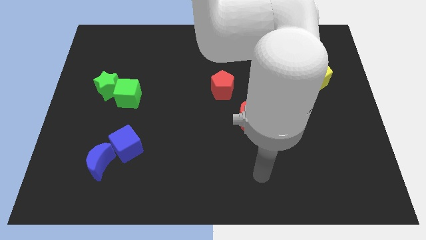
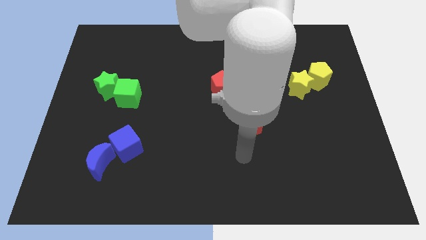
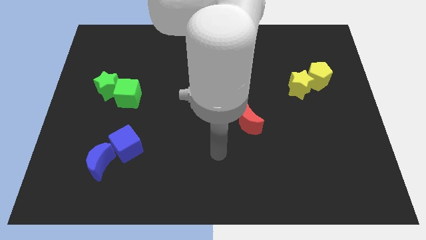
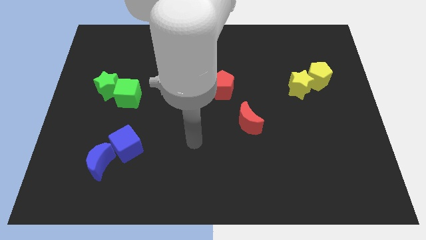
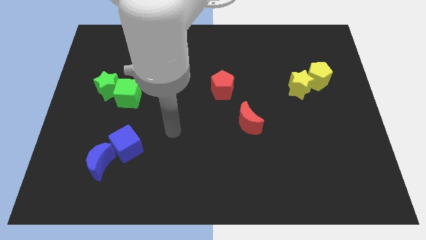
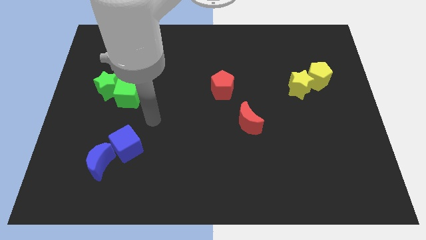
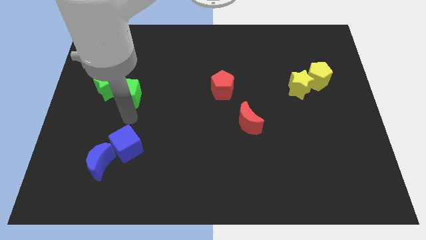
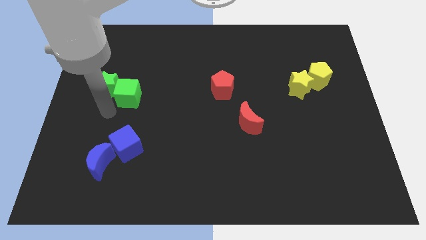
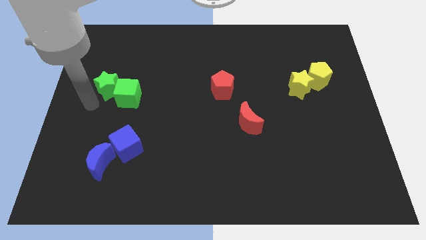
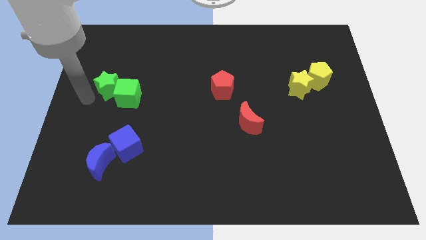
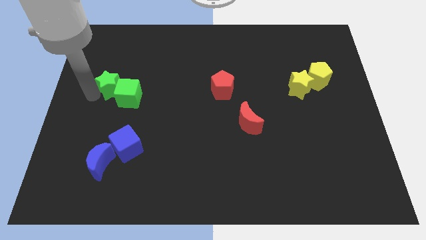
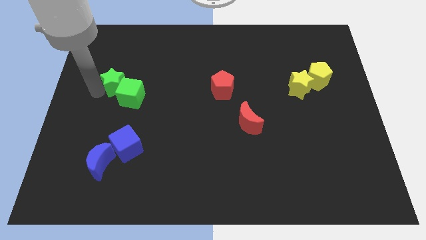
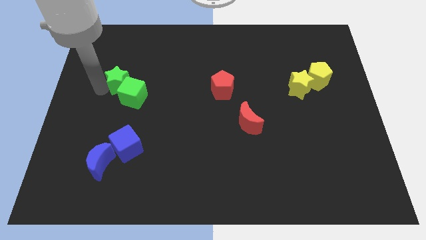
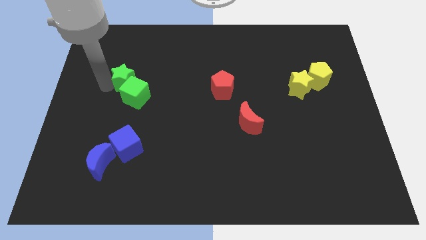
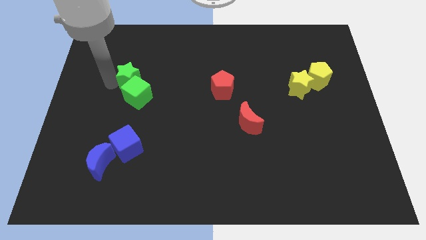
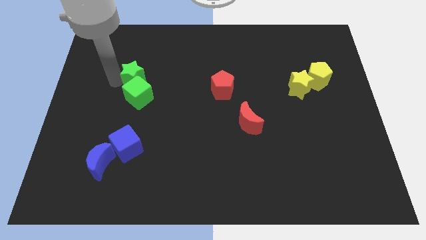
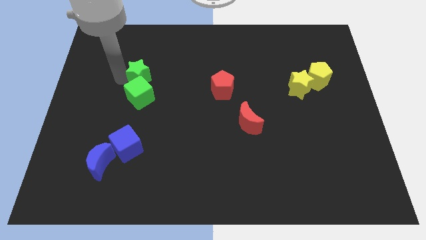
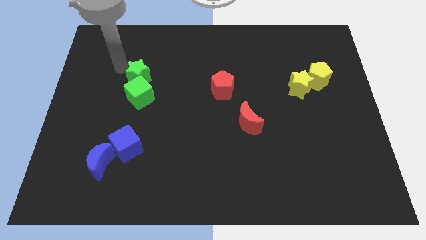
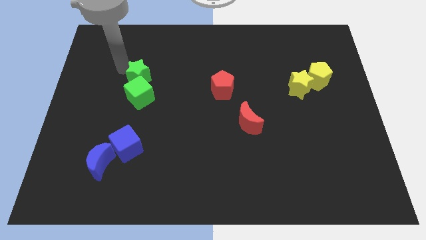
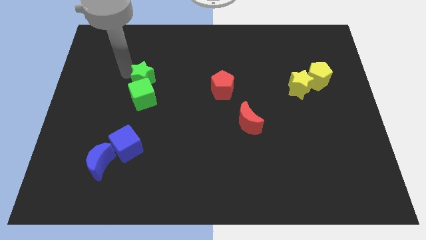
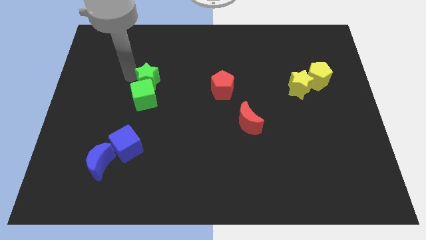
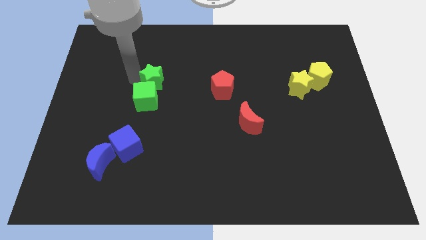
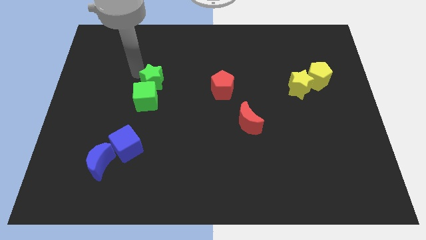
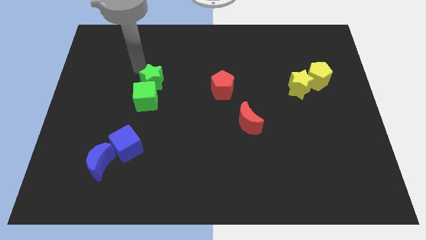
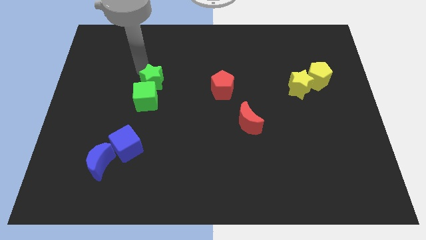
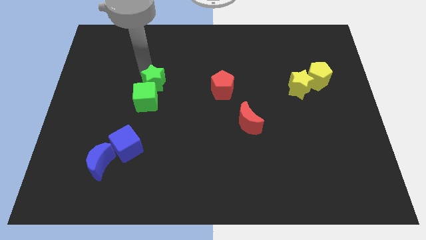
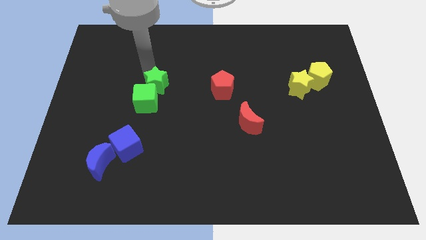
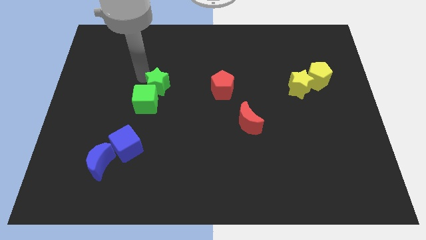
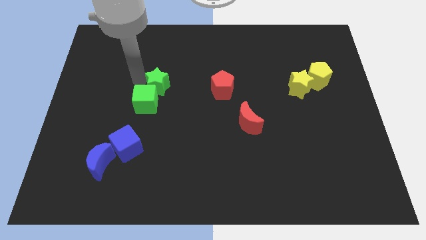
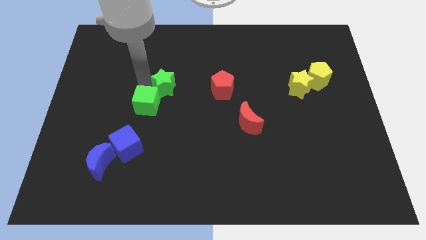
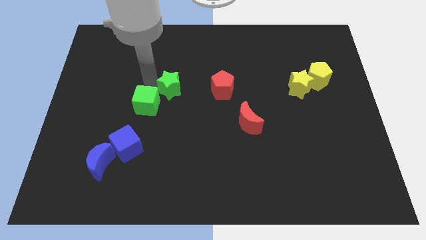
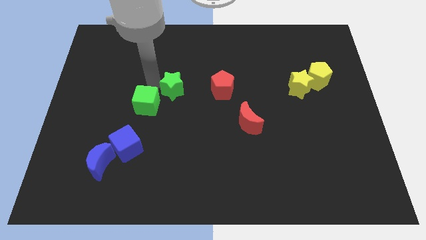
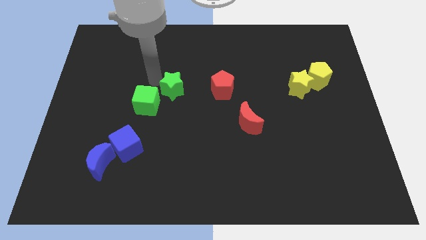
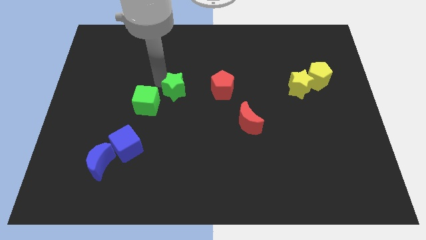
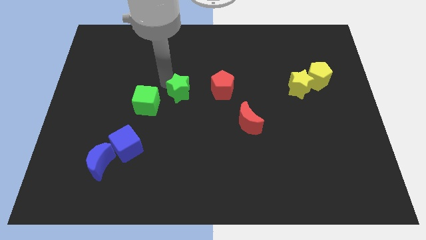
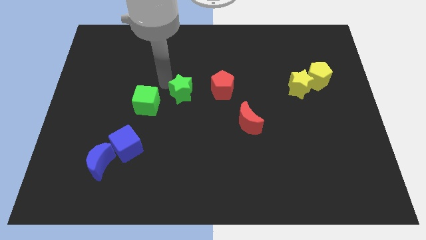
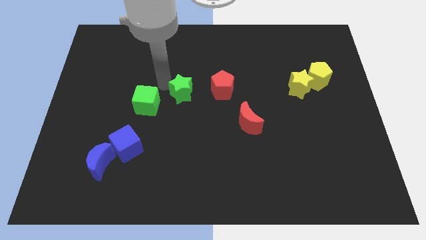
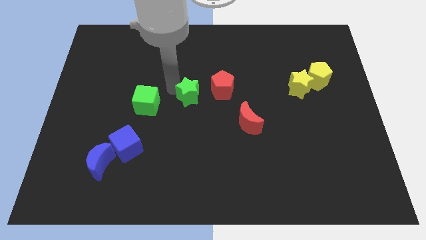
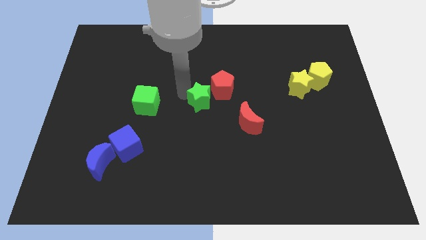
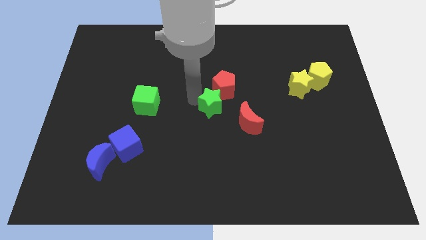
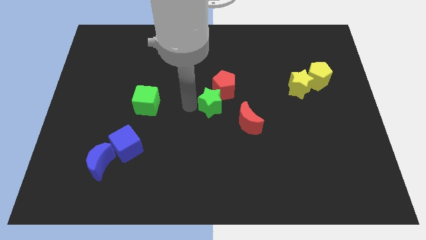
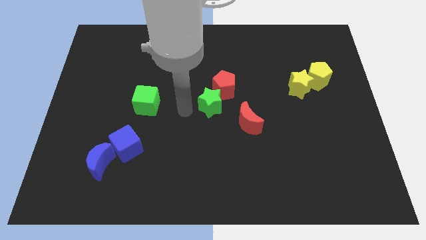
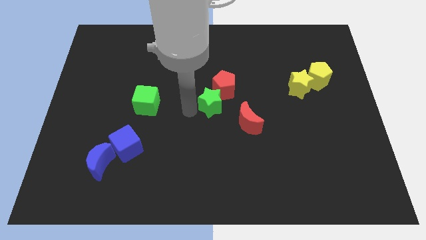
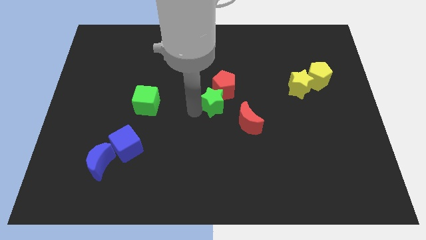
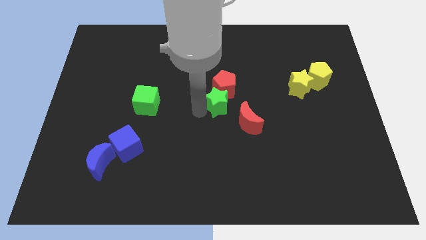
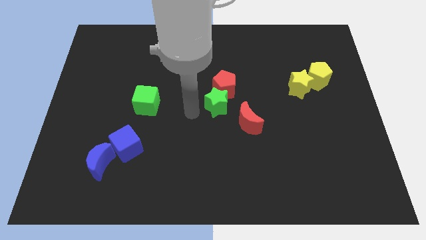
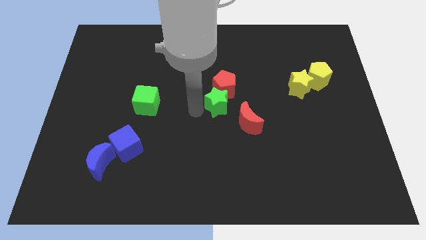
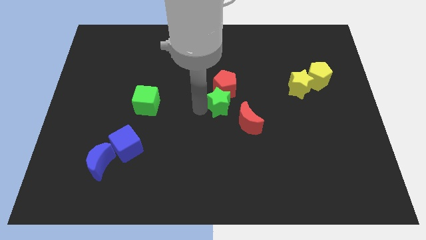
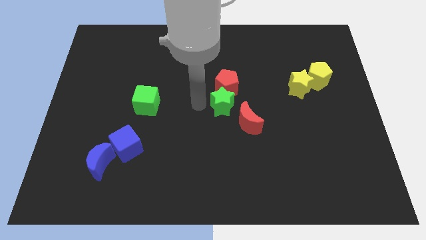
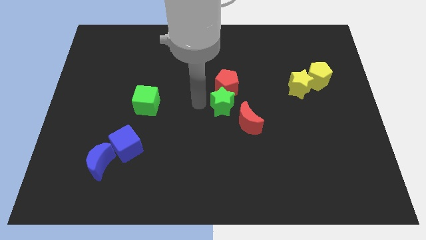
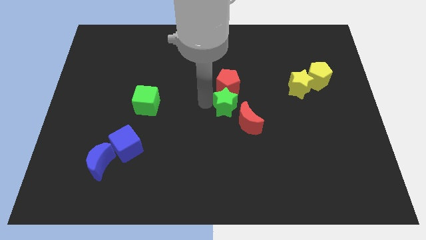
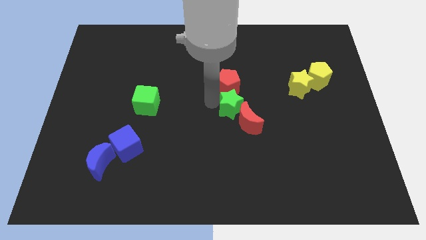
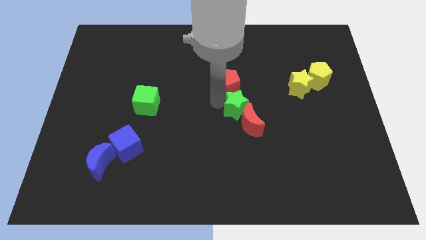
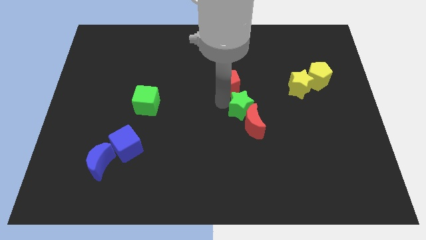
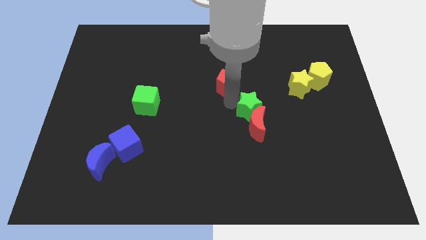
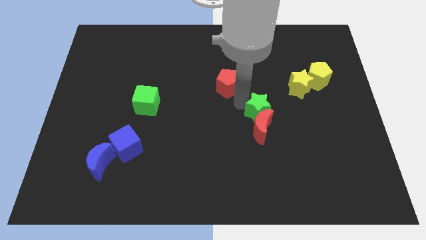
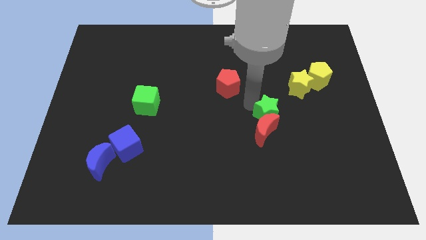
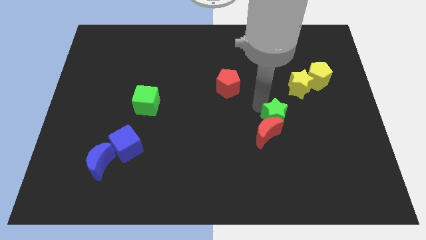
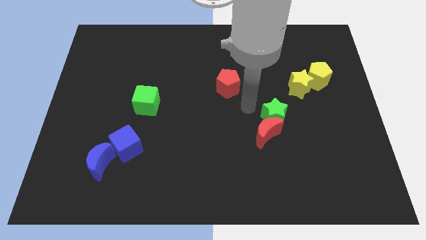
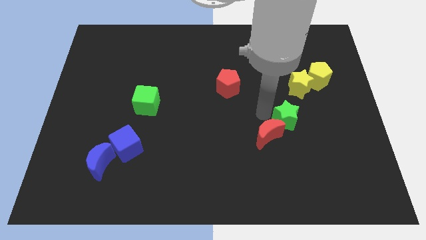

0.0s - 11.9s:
push the green star just right of the red moon

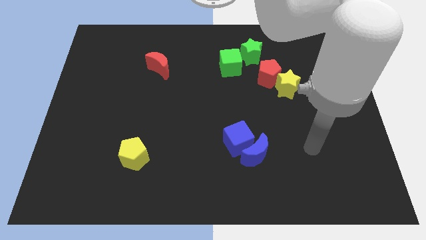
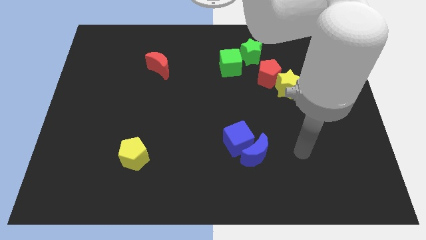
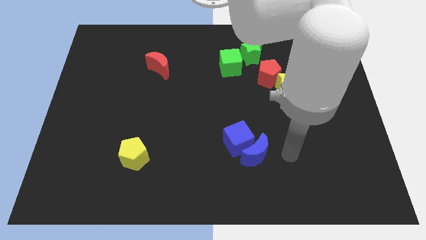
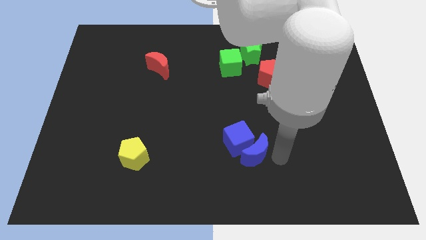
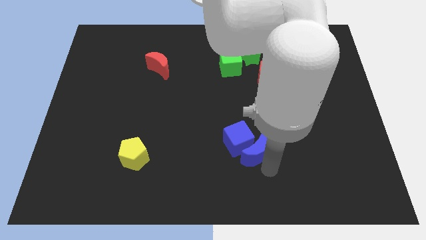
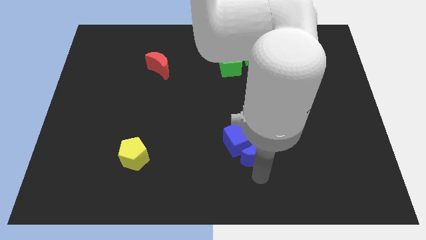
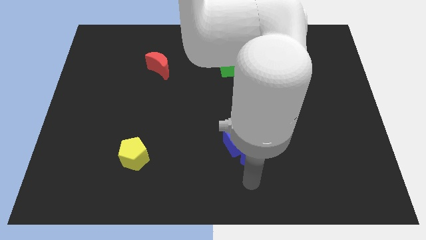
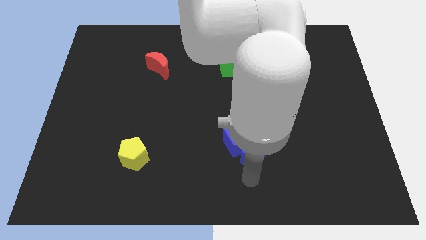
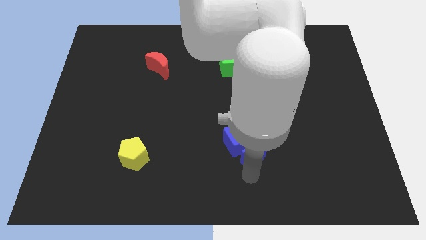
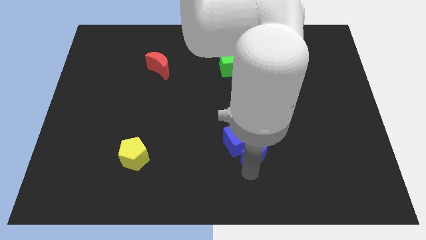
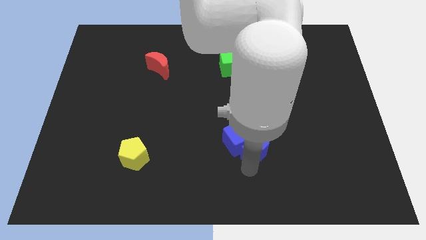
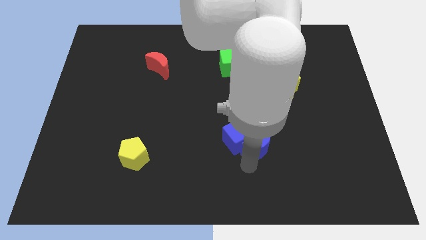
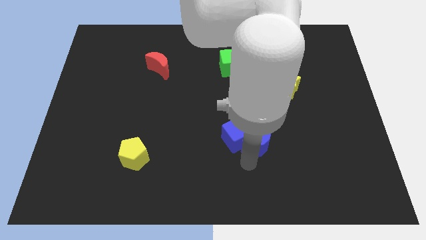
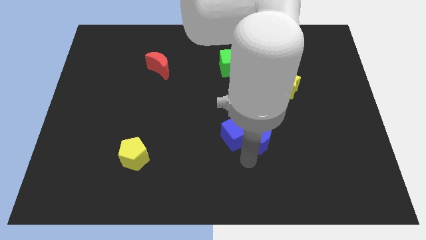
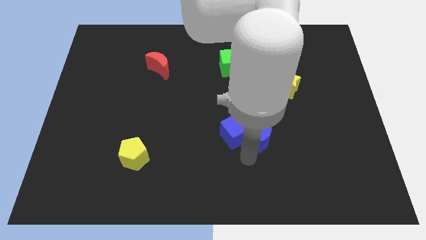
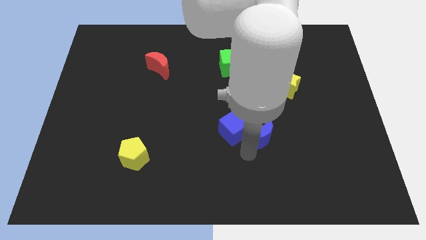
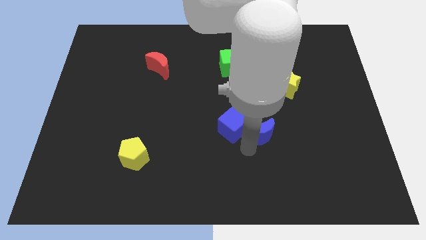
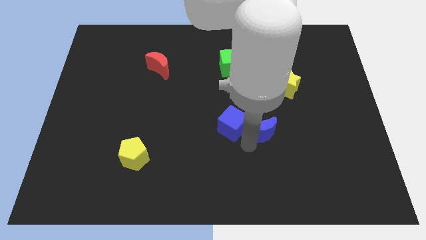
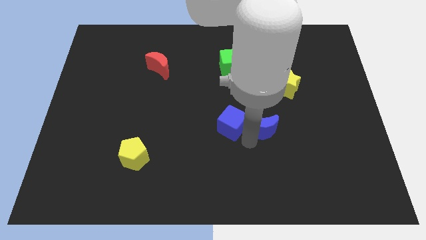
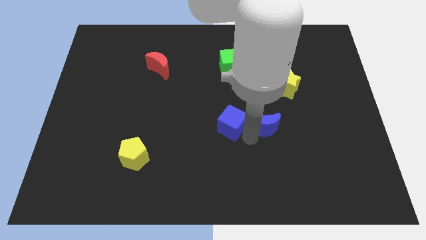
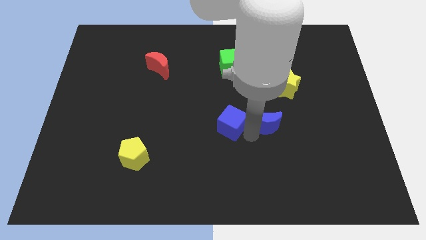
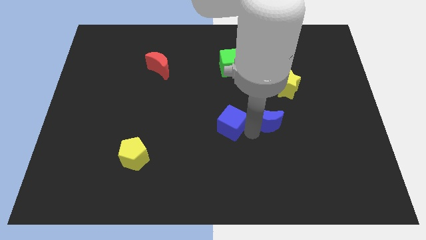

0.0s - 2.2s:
move the blue moon to the bottom left of the yellow star

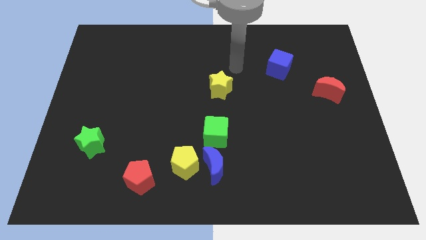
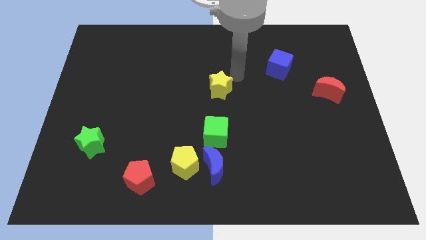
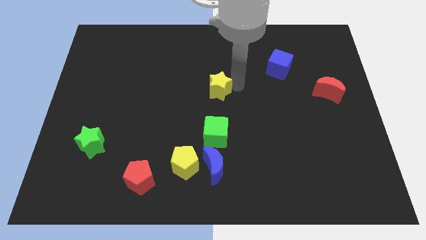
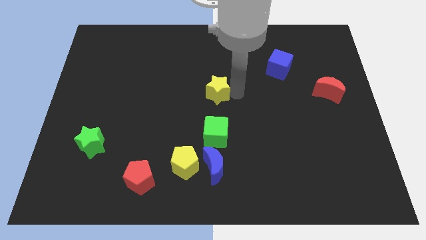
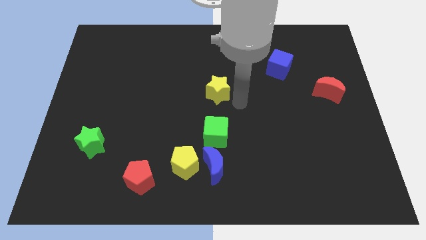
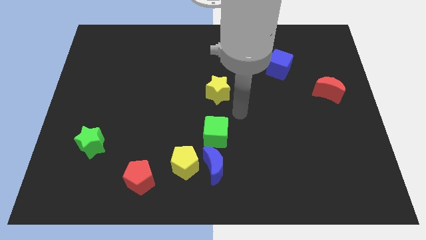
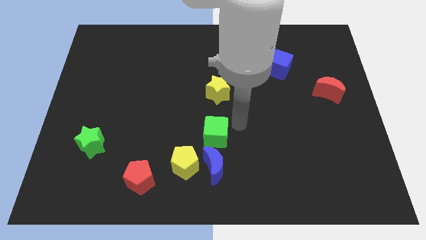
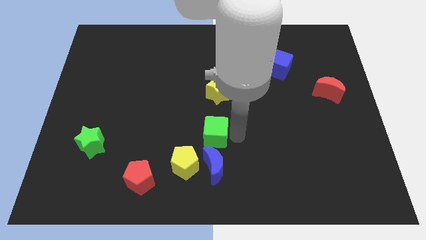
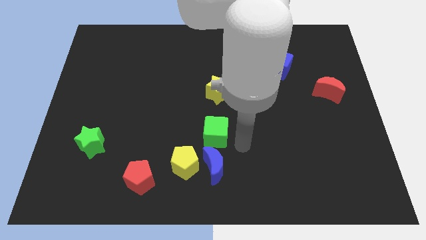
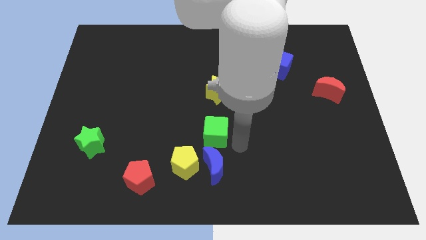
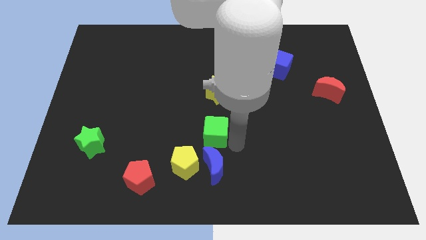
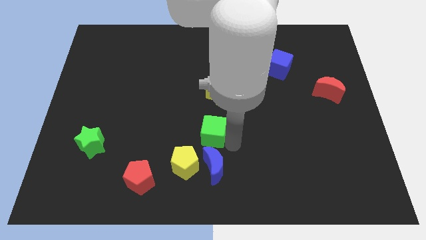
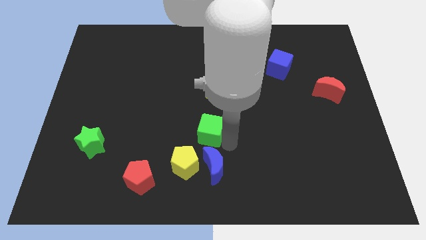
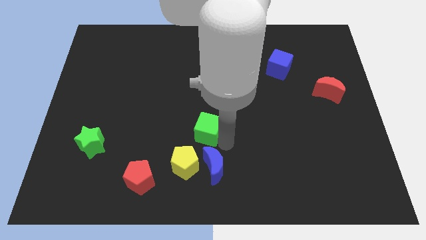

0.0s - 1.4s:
move the green cube to the top side of the yellow pentagon
